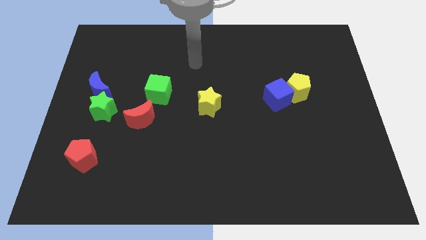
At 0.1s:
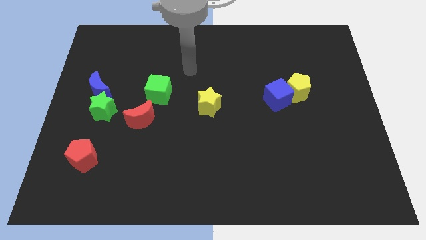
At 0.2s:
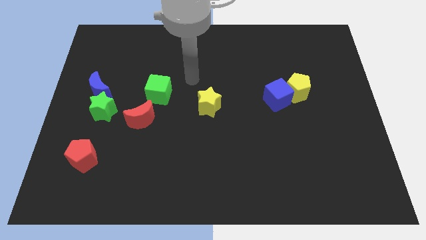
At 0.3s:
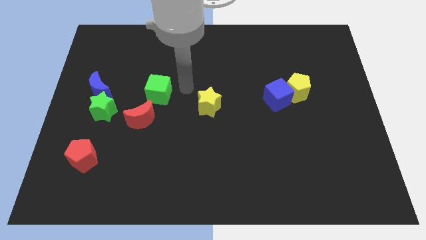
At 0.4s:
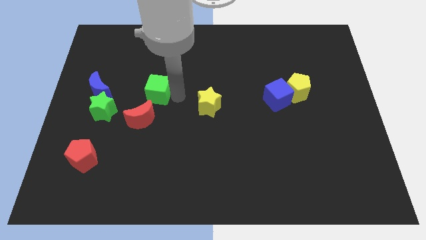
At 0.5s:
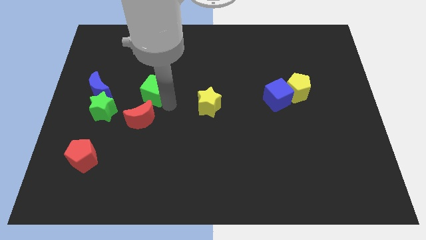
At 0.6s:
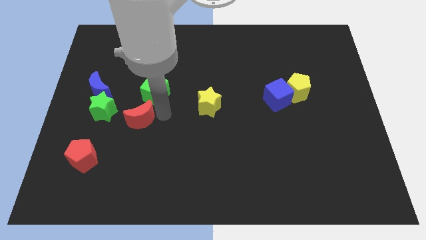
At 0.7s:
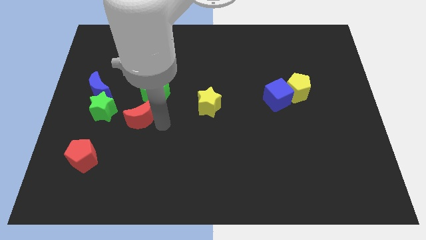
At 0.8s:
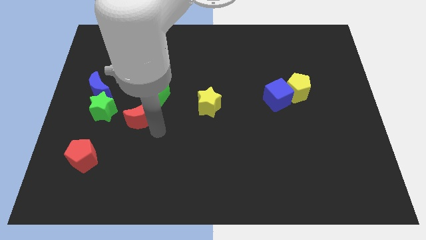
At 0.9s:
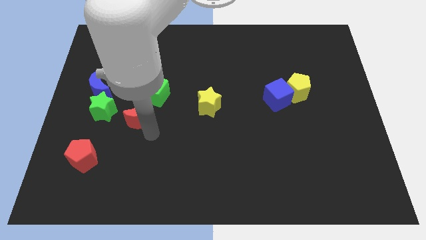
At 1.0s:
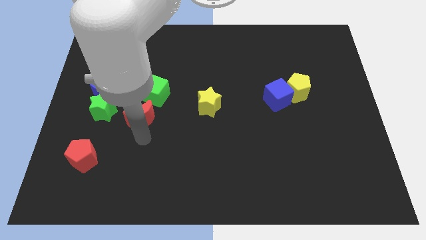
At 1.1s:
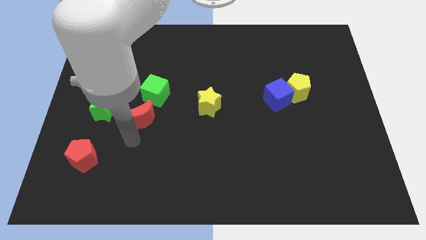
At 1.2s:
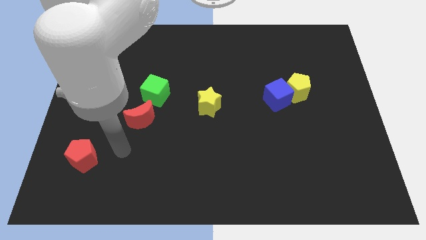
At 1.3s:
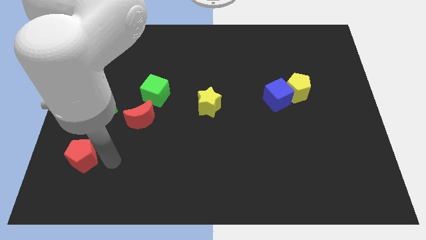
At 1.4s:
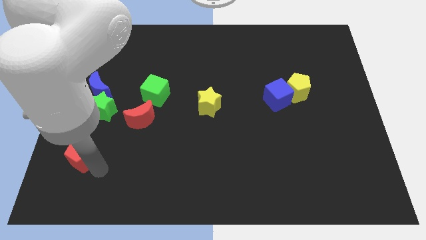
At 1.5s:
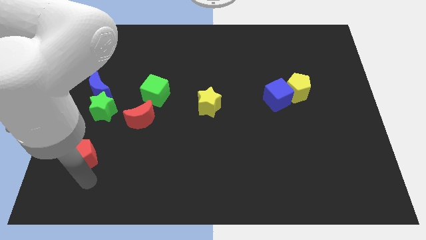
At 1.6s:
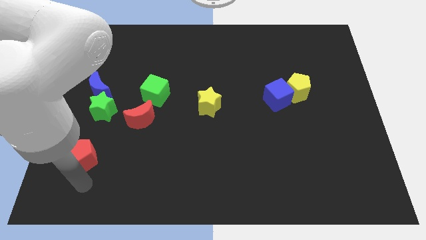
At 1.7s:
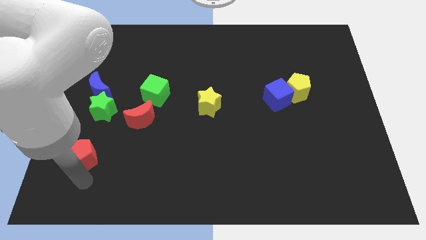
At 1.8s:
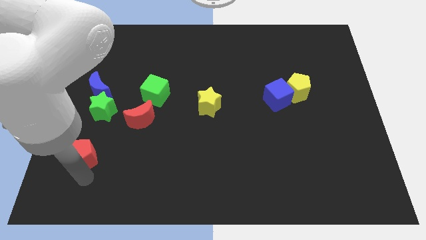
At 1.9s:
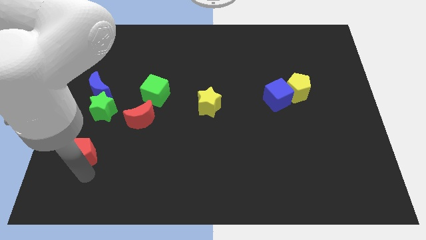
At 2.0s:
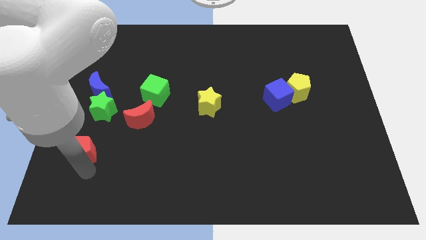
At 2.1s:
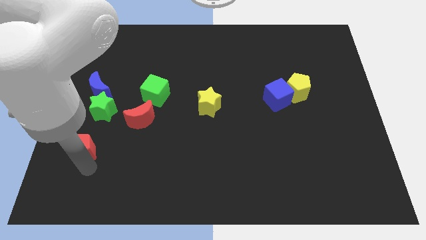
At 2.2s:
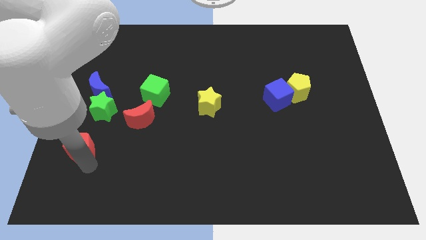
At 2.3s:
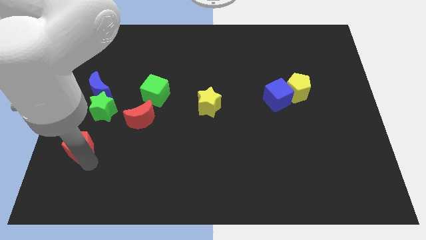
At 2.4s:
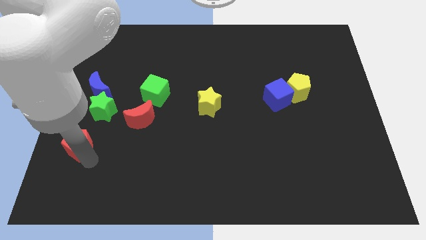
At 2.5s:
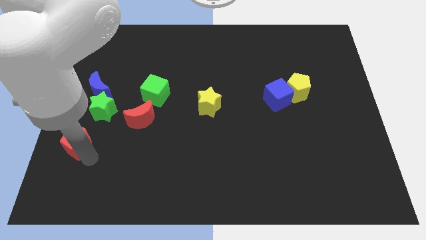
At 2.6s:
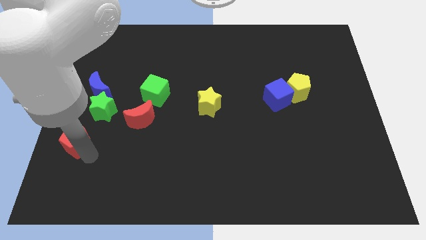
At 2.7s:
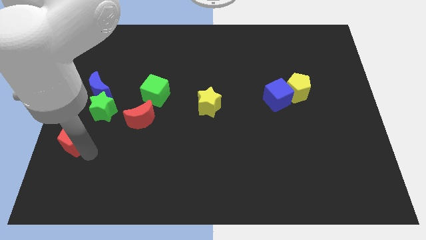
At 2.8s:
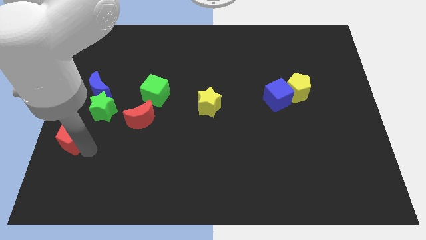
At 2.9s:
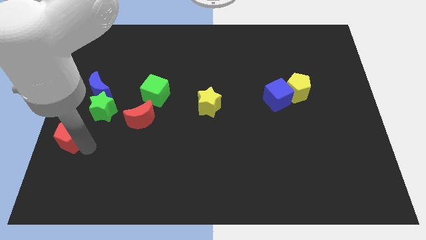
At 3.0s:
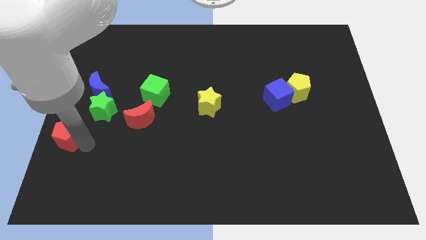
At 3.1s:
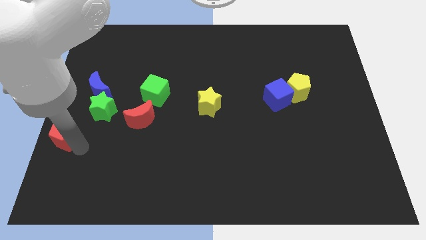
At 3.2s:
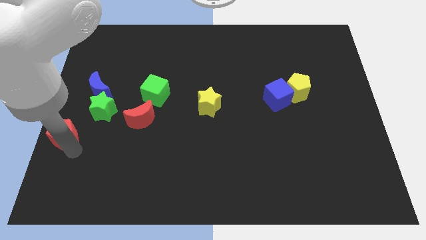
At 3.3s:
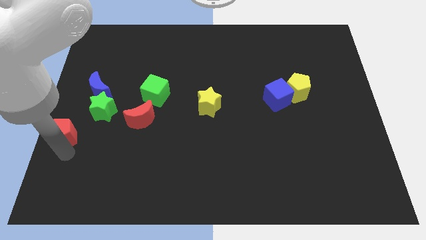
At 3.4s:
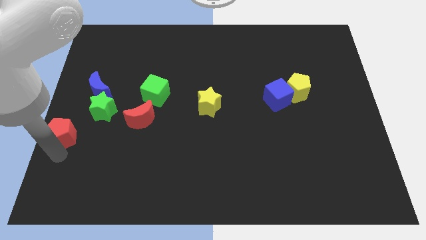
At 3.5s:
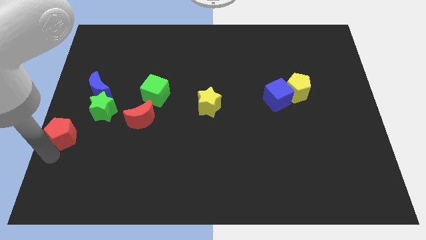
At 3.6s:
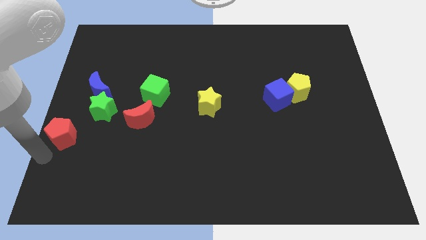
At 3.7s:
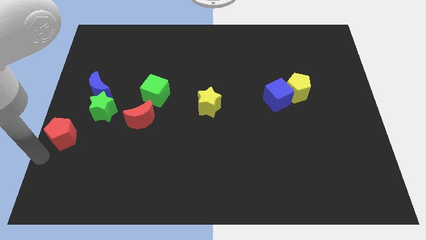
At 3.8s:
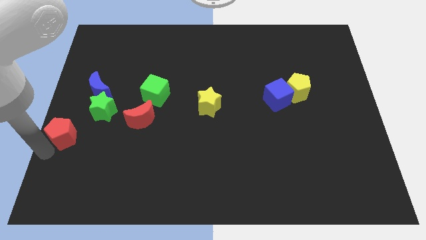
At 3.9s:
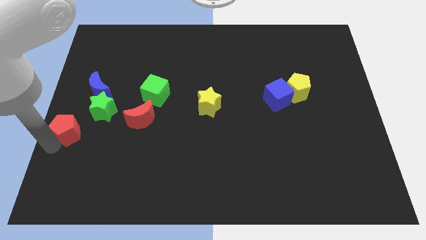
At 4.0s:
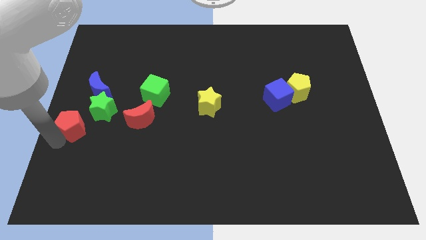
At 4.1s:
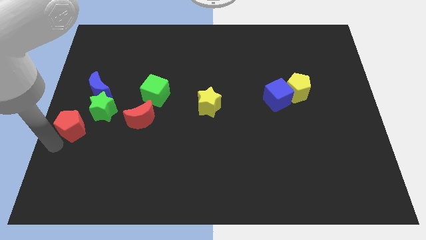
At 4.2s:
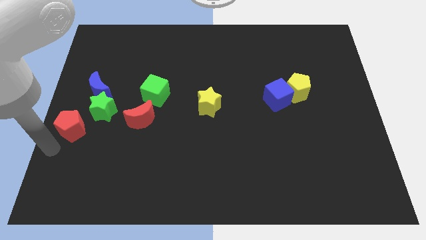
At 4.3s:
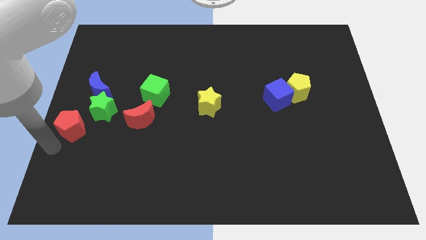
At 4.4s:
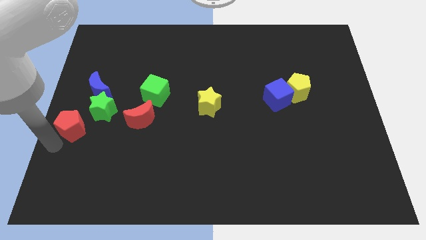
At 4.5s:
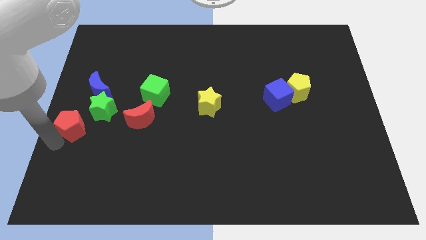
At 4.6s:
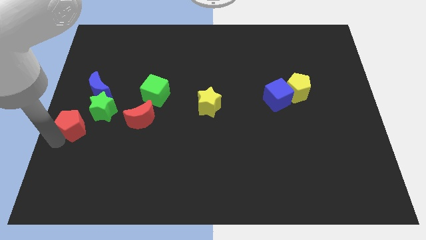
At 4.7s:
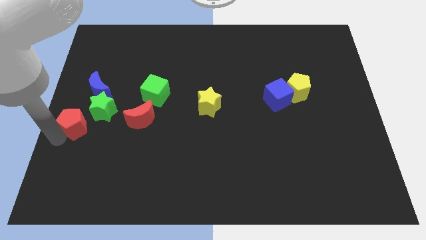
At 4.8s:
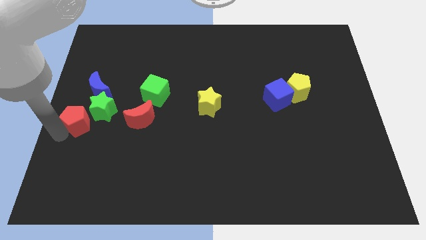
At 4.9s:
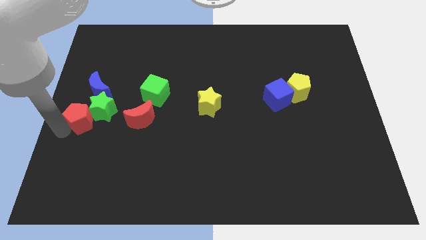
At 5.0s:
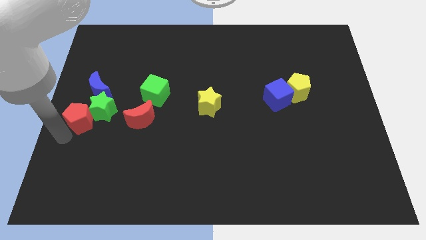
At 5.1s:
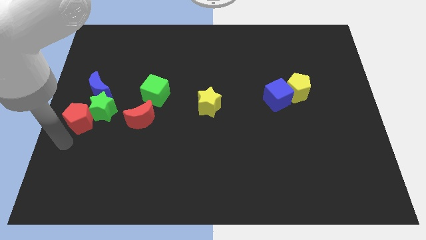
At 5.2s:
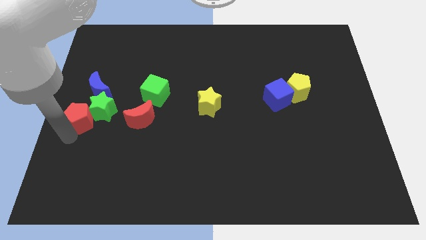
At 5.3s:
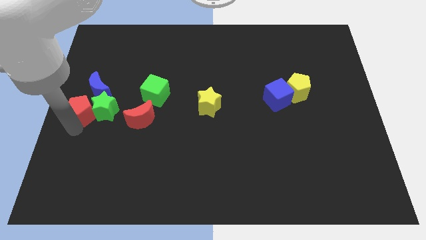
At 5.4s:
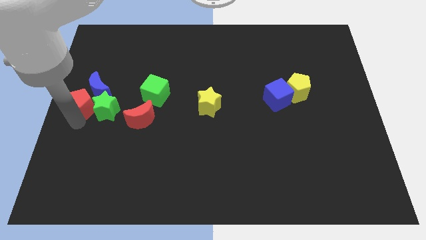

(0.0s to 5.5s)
move the red pentagon close to the blue moon

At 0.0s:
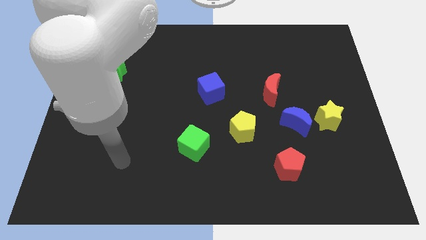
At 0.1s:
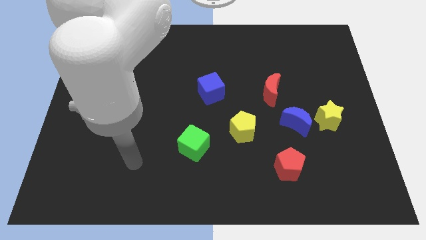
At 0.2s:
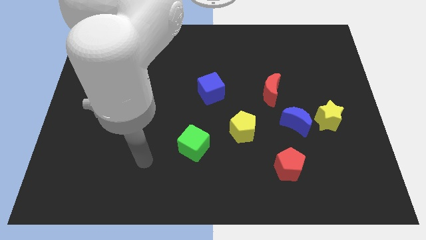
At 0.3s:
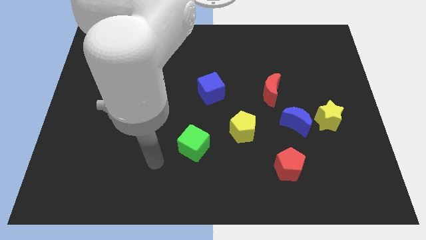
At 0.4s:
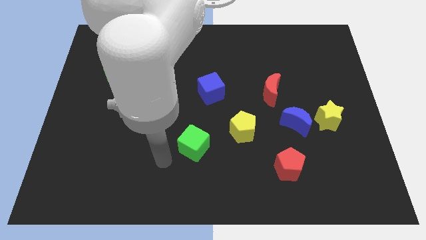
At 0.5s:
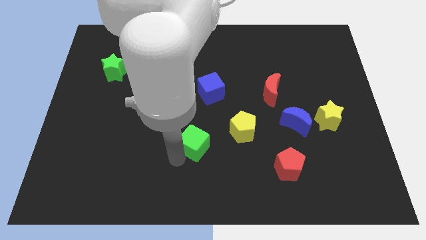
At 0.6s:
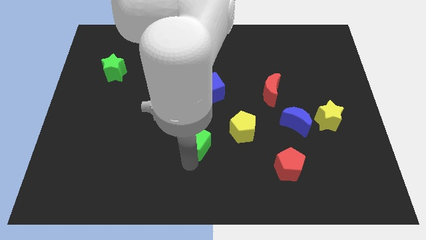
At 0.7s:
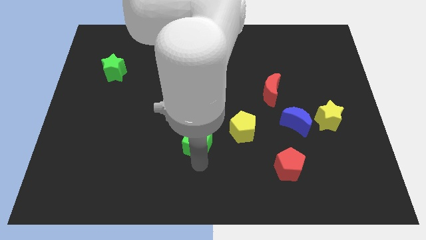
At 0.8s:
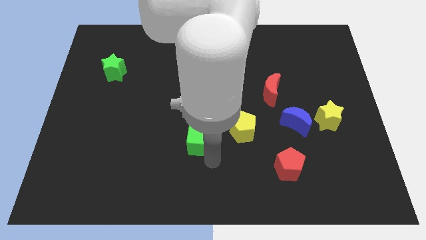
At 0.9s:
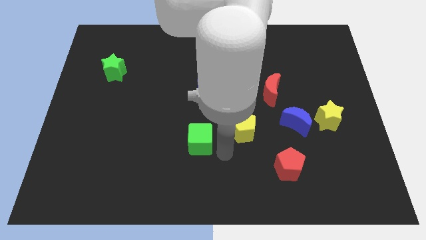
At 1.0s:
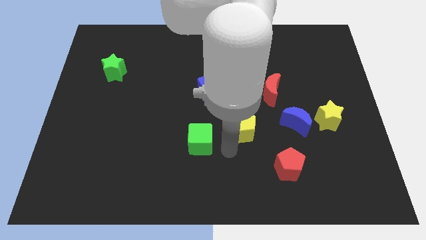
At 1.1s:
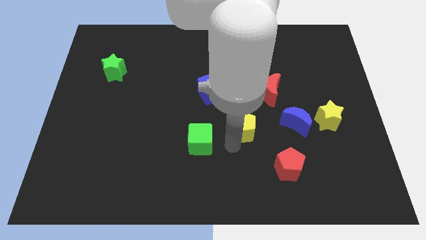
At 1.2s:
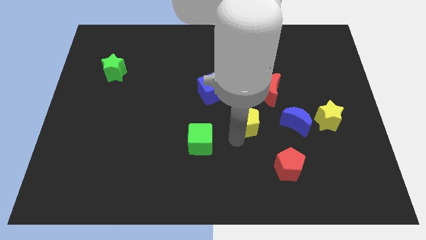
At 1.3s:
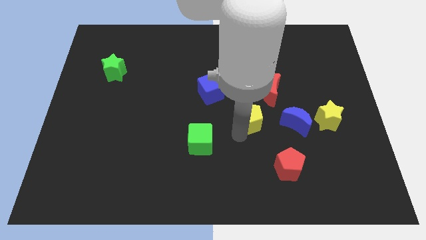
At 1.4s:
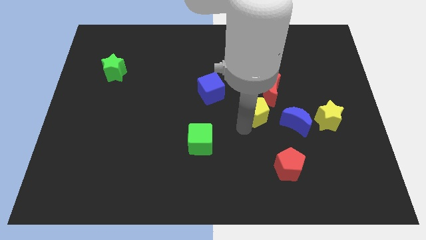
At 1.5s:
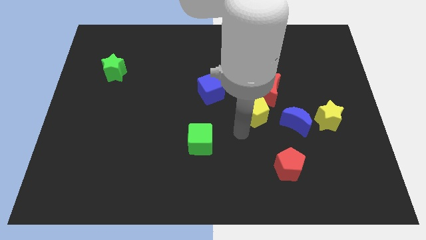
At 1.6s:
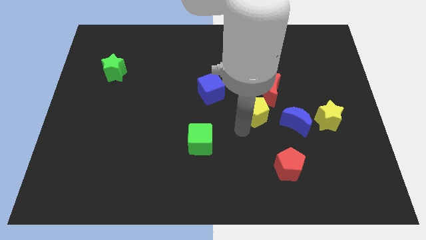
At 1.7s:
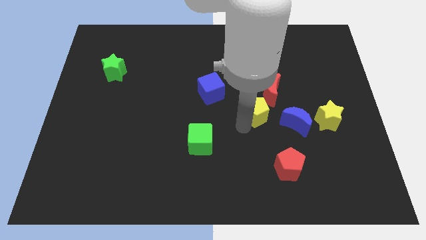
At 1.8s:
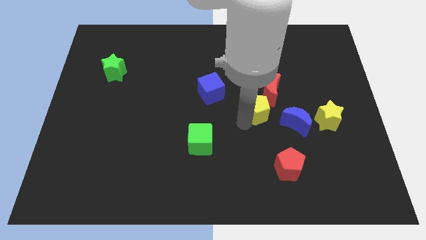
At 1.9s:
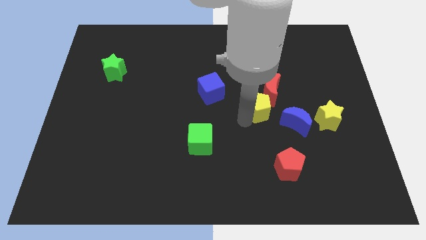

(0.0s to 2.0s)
push the yellow pentagon towards the red moon
